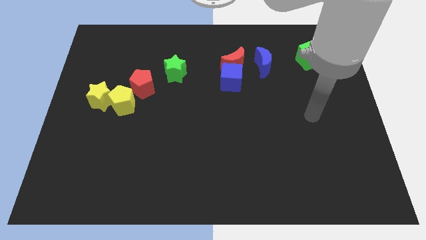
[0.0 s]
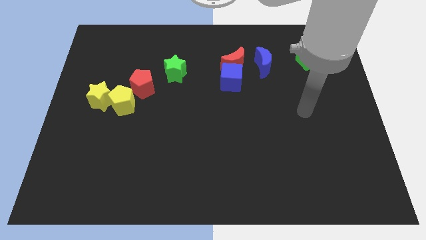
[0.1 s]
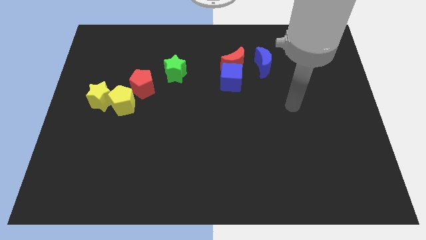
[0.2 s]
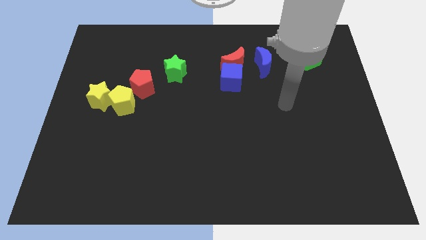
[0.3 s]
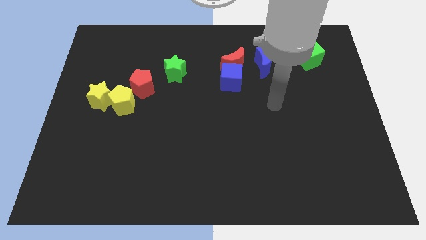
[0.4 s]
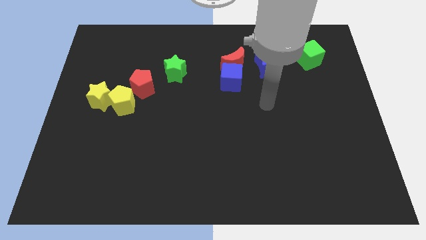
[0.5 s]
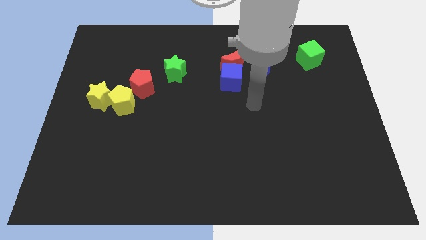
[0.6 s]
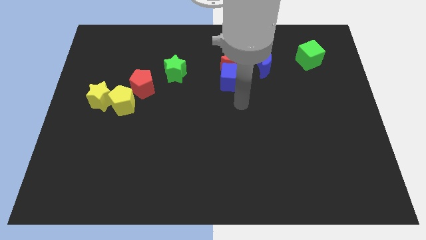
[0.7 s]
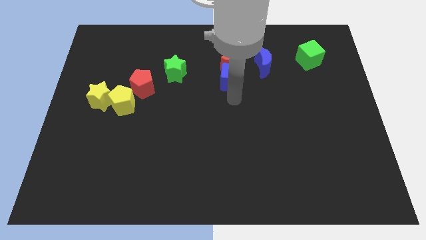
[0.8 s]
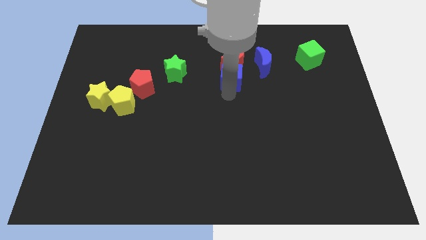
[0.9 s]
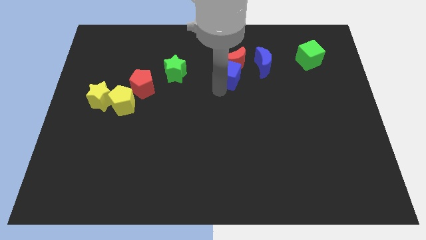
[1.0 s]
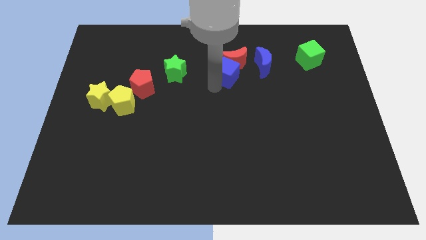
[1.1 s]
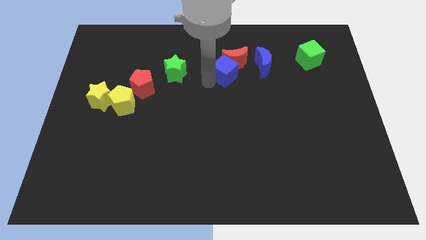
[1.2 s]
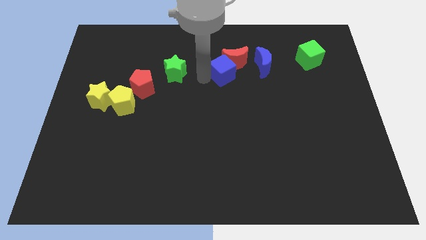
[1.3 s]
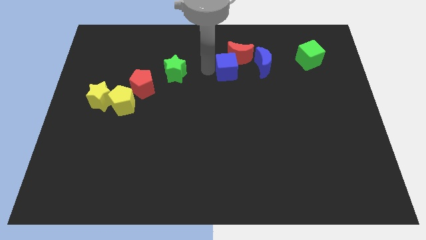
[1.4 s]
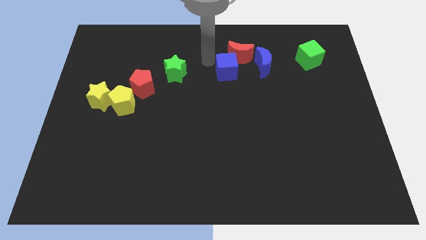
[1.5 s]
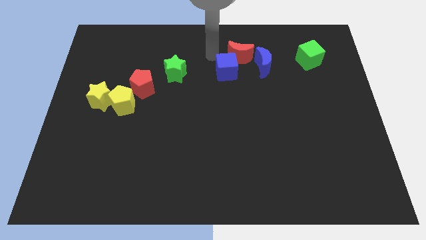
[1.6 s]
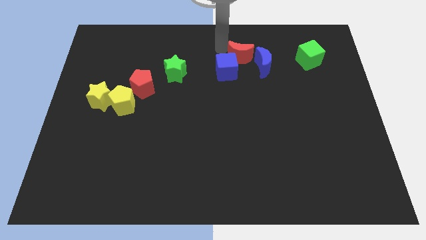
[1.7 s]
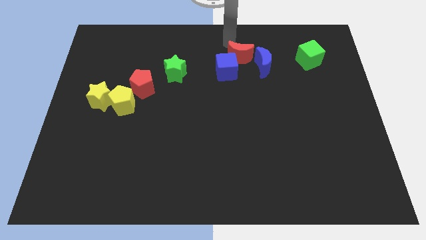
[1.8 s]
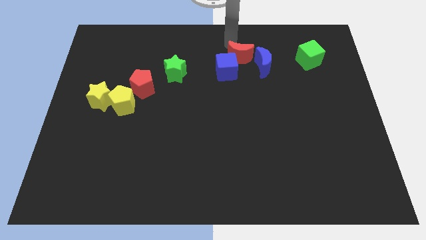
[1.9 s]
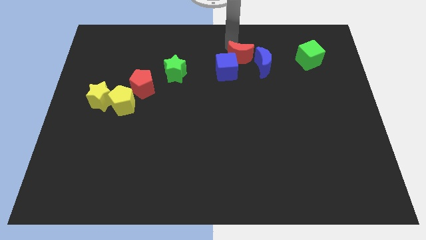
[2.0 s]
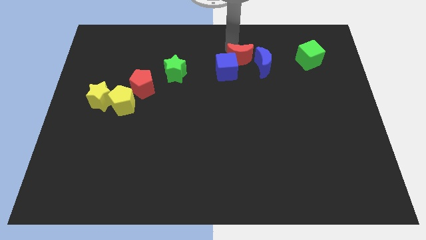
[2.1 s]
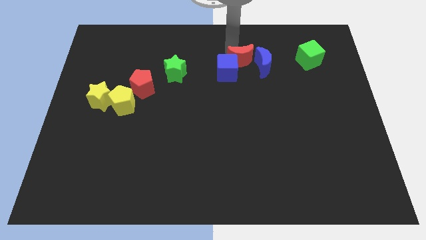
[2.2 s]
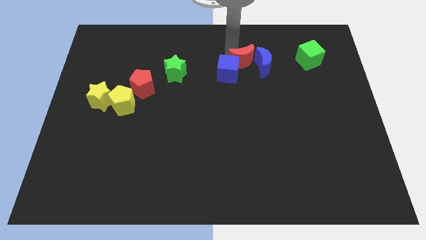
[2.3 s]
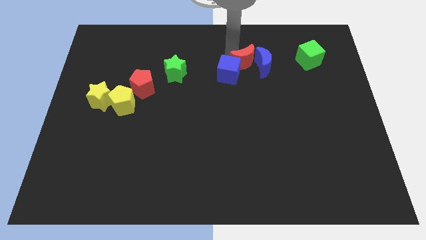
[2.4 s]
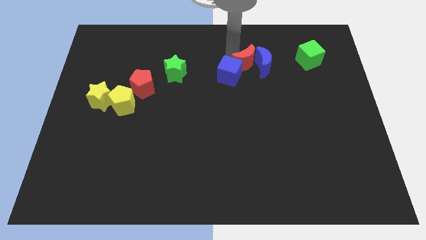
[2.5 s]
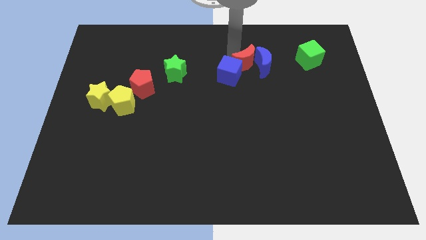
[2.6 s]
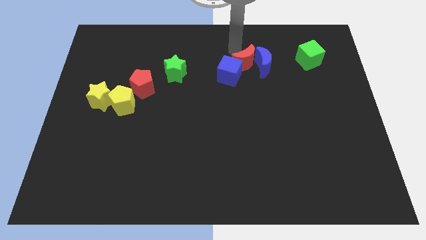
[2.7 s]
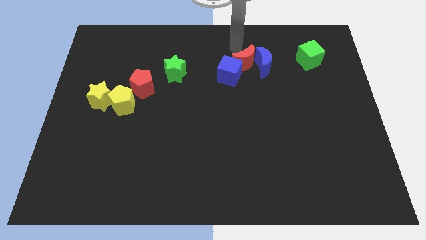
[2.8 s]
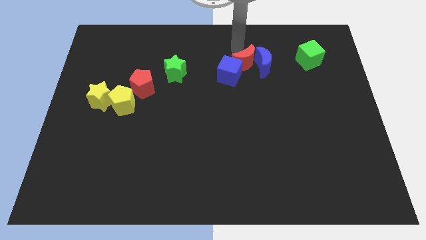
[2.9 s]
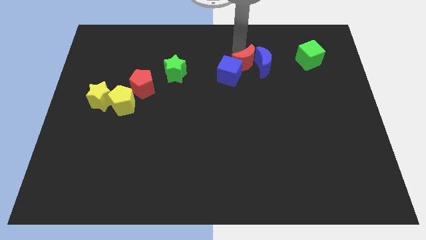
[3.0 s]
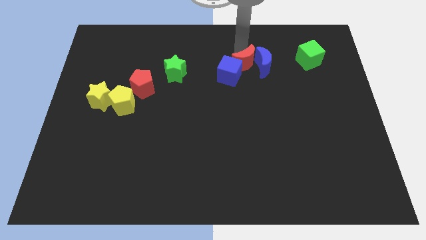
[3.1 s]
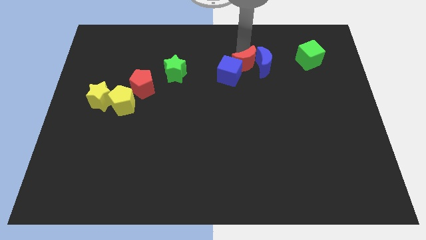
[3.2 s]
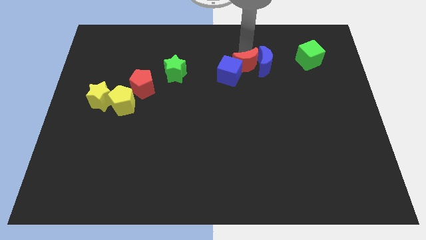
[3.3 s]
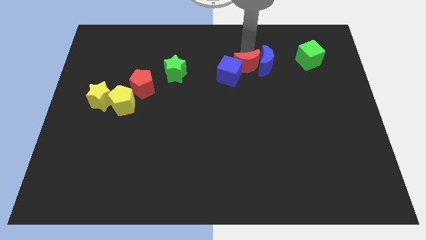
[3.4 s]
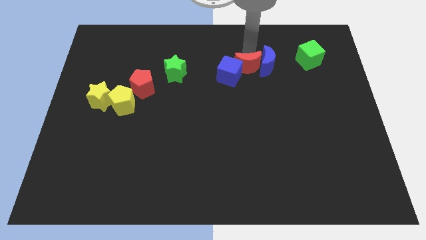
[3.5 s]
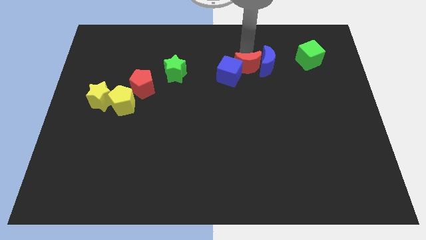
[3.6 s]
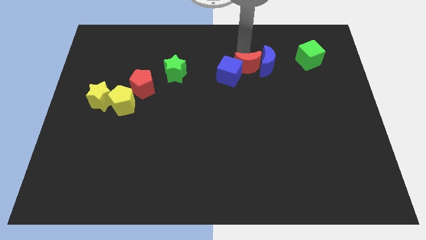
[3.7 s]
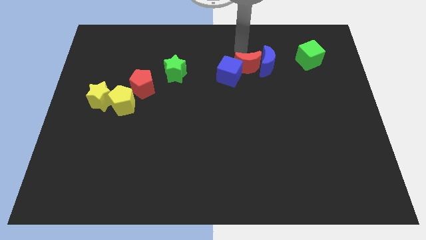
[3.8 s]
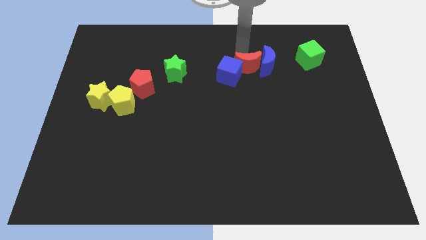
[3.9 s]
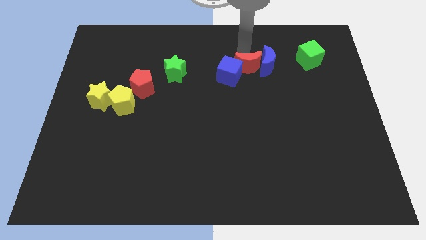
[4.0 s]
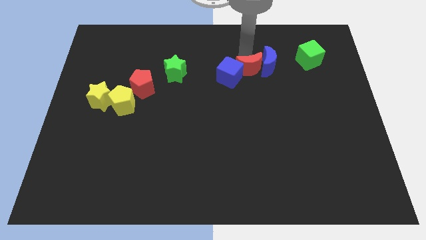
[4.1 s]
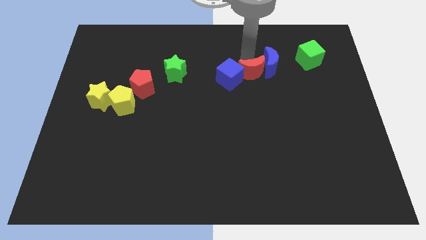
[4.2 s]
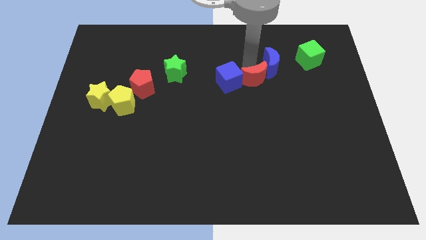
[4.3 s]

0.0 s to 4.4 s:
slightly push the red moon down and then to the right

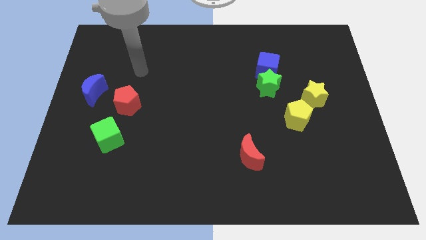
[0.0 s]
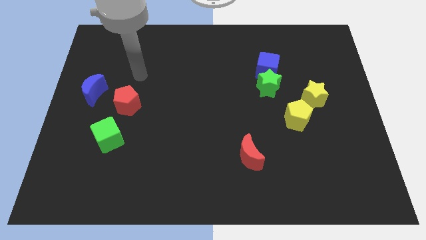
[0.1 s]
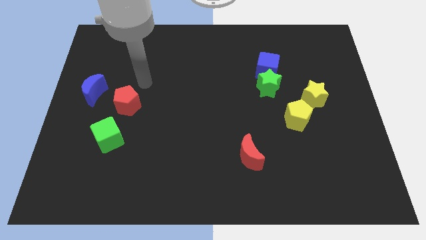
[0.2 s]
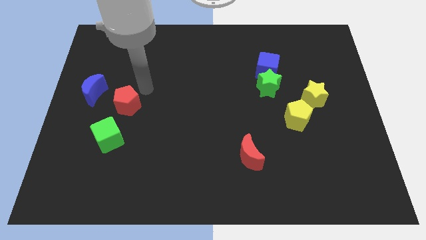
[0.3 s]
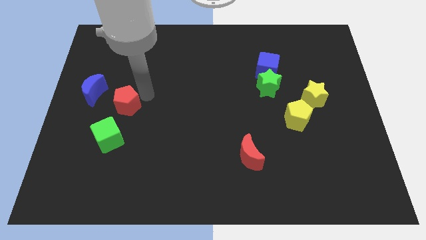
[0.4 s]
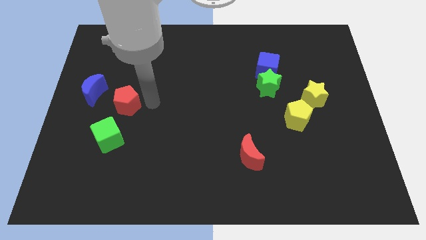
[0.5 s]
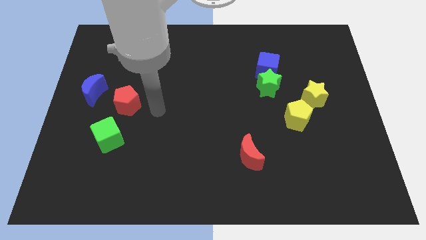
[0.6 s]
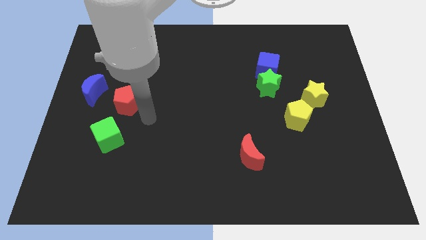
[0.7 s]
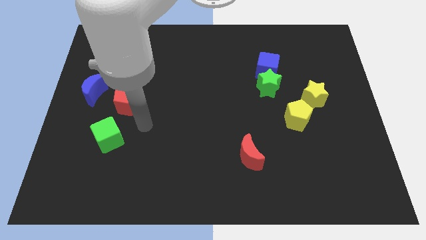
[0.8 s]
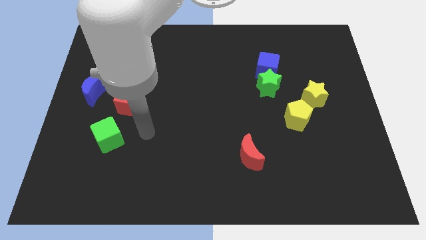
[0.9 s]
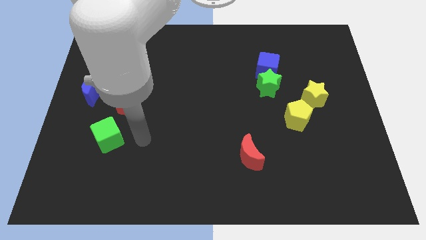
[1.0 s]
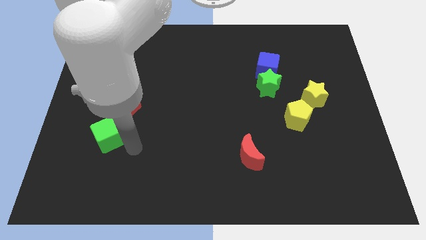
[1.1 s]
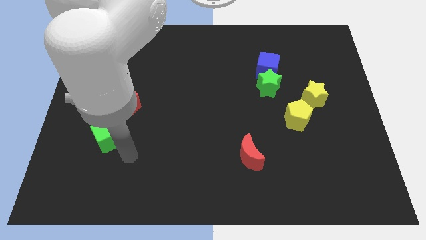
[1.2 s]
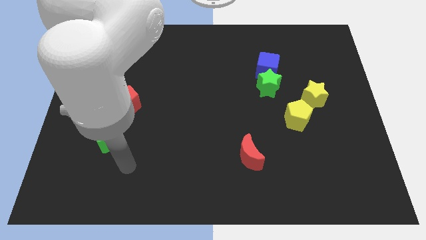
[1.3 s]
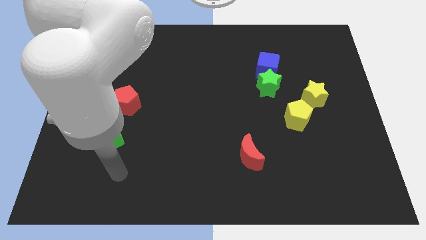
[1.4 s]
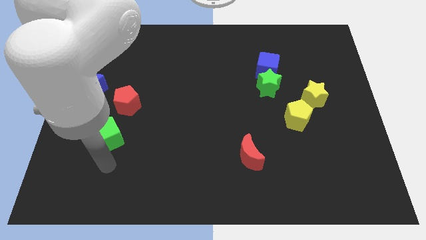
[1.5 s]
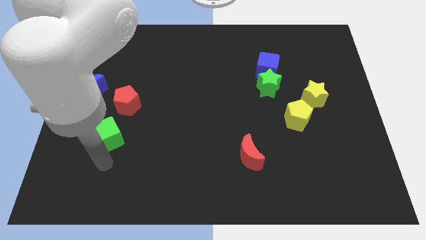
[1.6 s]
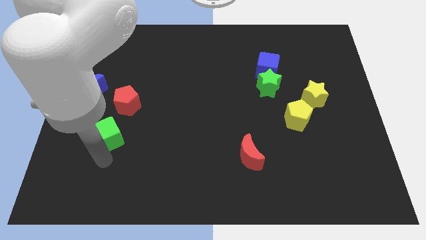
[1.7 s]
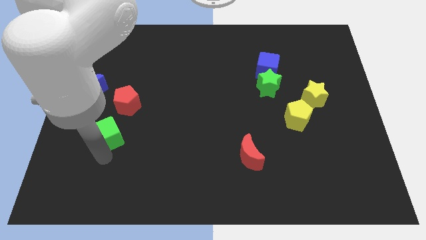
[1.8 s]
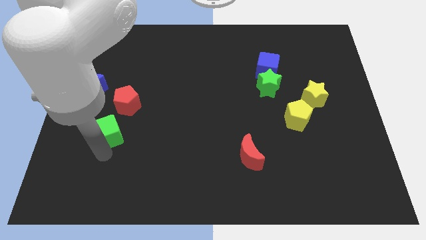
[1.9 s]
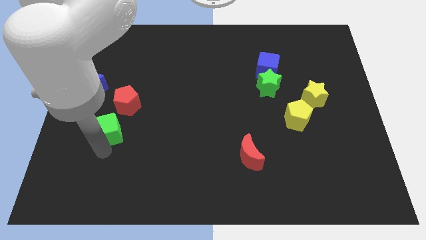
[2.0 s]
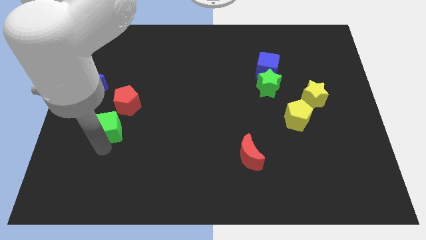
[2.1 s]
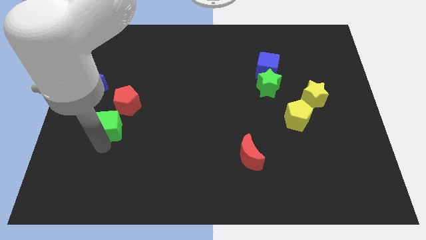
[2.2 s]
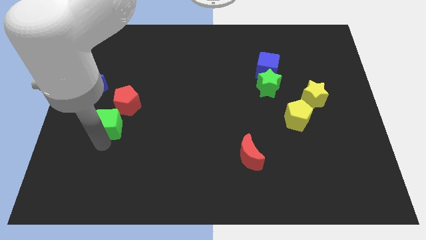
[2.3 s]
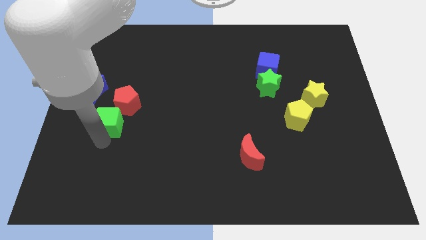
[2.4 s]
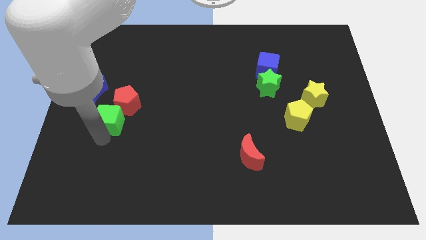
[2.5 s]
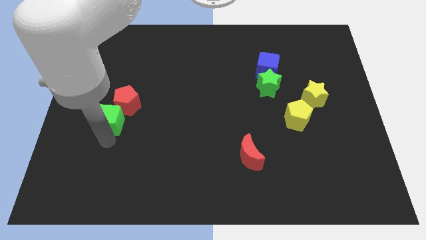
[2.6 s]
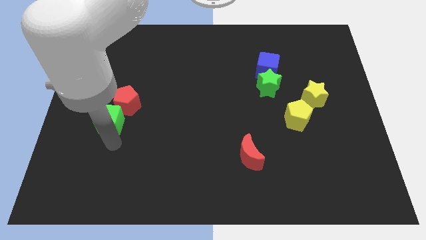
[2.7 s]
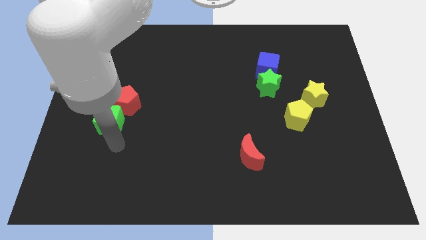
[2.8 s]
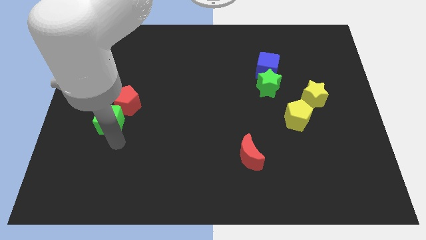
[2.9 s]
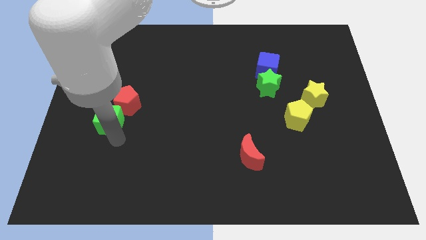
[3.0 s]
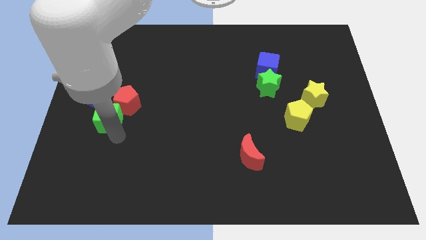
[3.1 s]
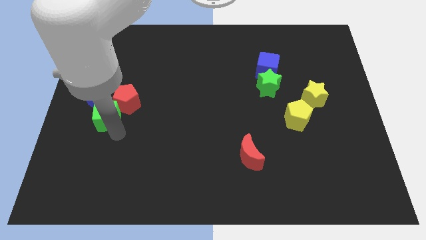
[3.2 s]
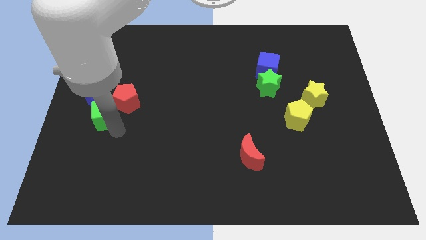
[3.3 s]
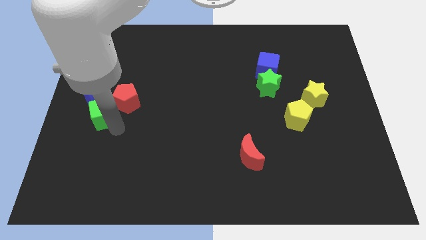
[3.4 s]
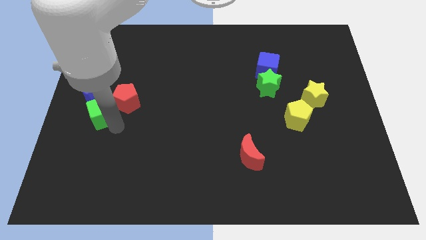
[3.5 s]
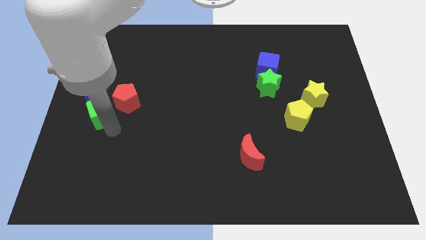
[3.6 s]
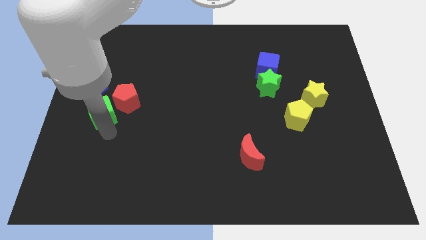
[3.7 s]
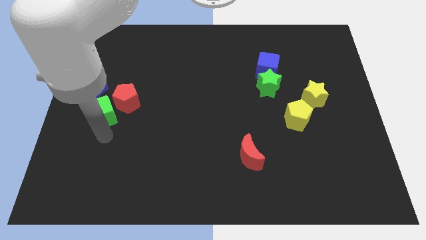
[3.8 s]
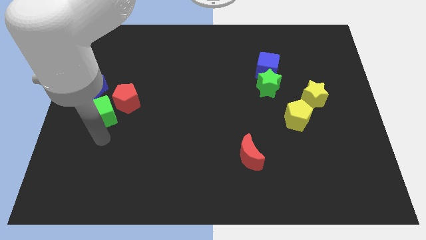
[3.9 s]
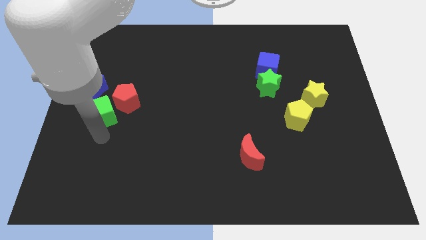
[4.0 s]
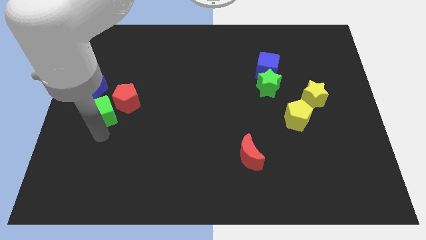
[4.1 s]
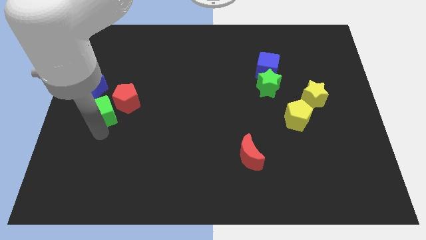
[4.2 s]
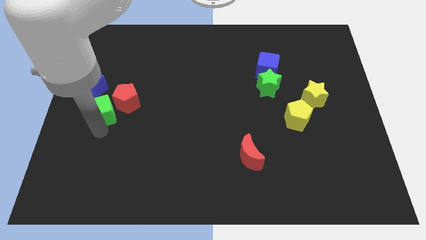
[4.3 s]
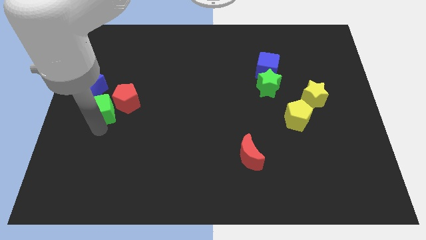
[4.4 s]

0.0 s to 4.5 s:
push the green cube up a bit

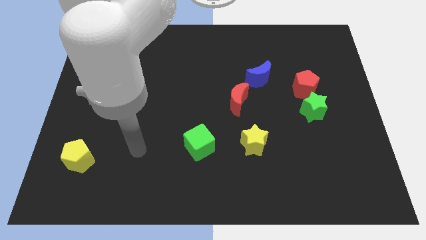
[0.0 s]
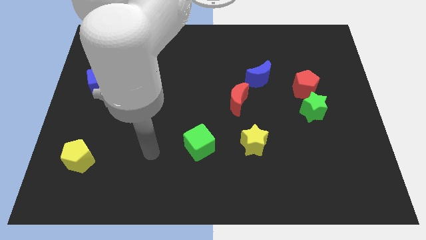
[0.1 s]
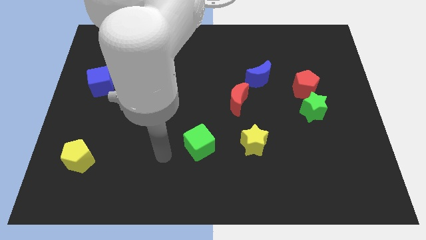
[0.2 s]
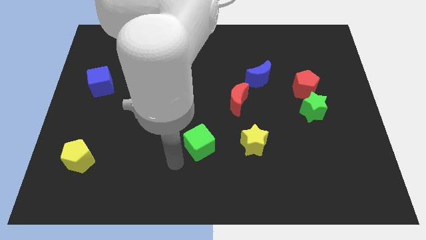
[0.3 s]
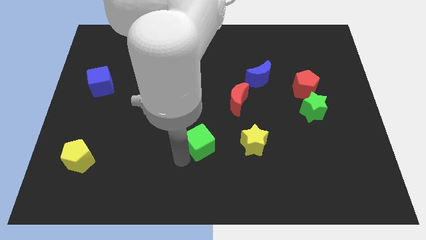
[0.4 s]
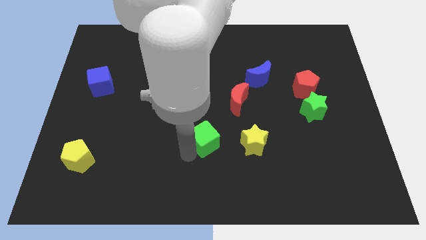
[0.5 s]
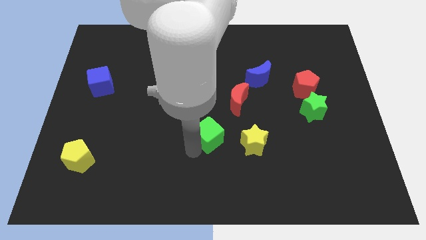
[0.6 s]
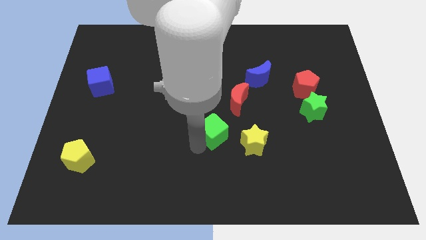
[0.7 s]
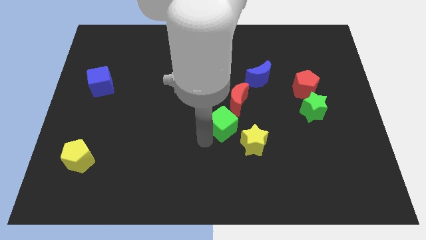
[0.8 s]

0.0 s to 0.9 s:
slightly move the green cube upwards and right diagonally
